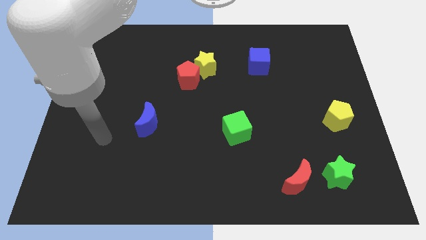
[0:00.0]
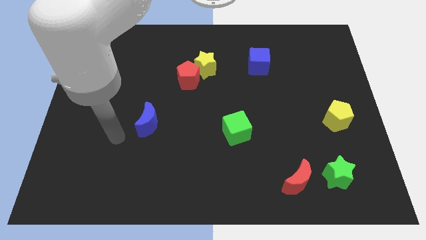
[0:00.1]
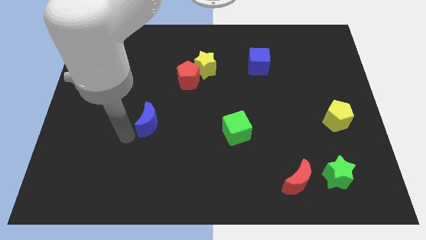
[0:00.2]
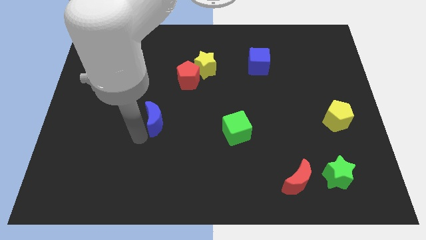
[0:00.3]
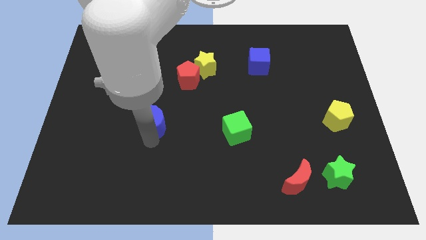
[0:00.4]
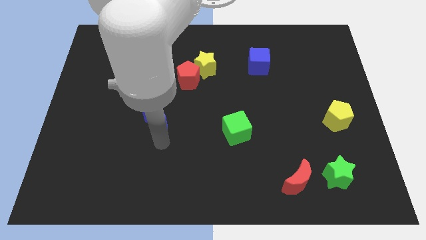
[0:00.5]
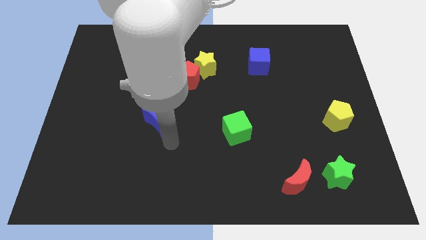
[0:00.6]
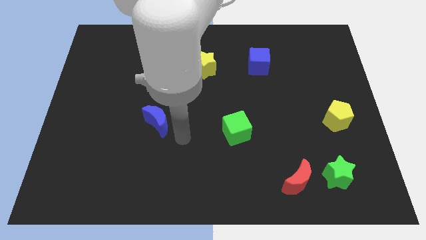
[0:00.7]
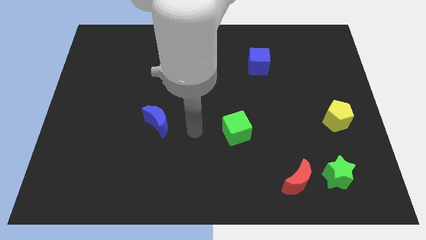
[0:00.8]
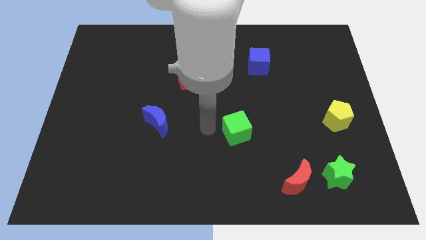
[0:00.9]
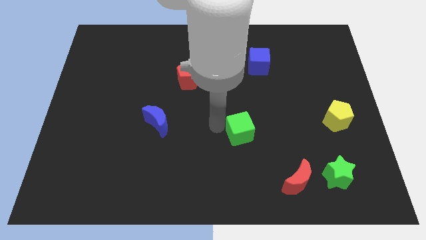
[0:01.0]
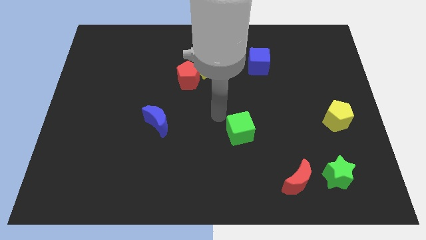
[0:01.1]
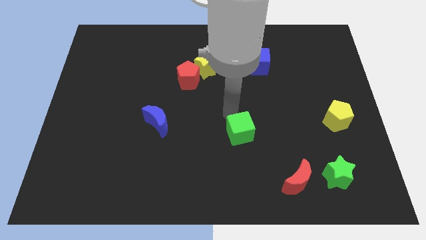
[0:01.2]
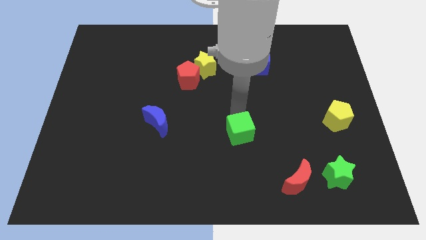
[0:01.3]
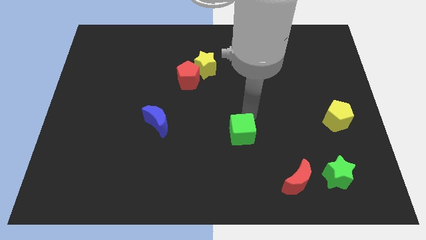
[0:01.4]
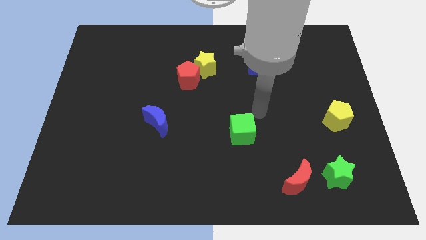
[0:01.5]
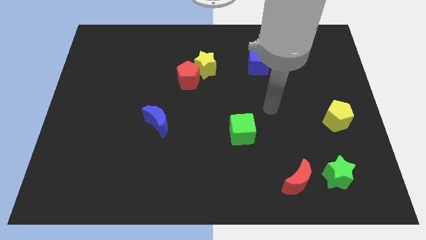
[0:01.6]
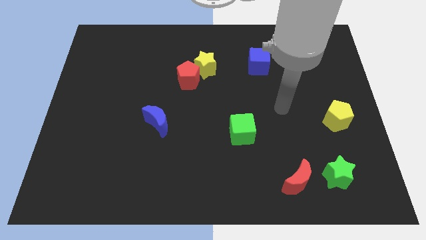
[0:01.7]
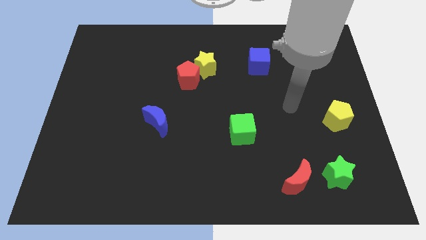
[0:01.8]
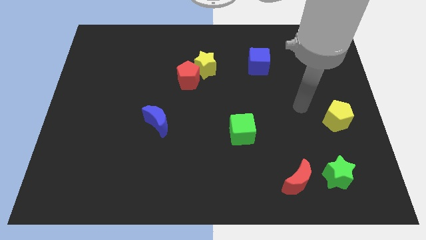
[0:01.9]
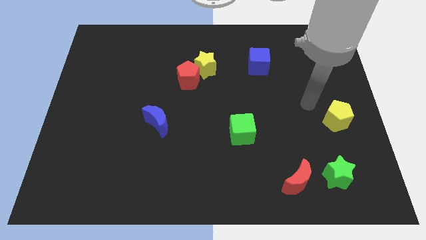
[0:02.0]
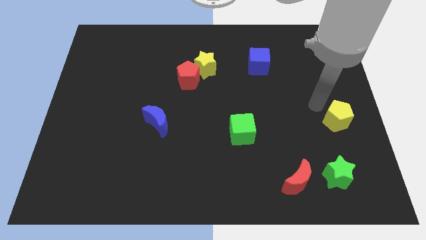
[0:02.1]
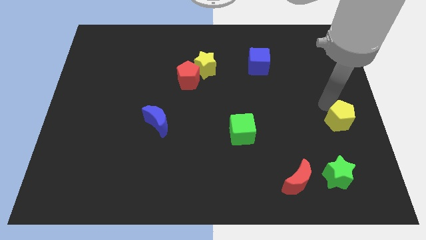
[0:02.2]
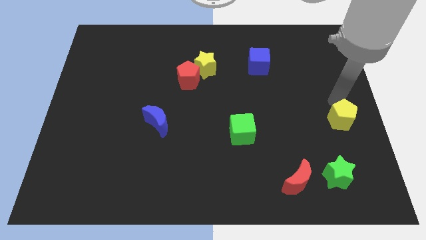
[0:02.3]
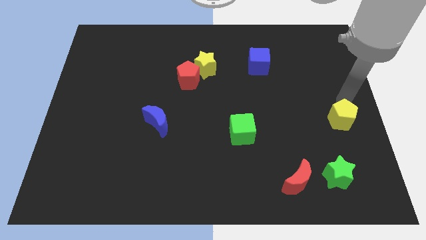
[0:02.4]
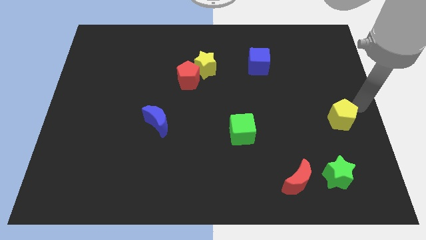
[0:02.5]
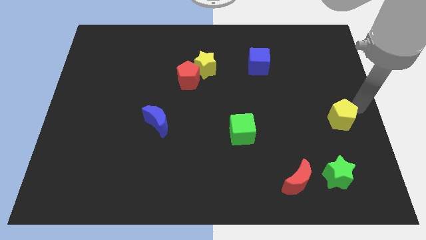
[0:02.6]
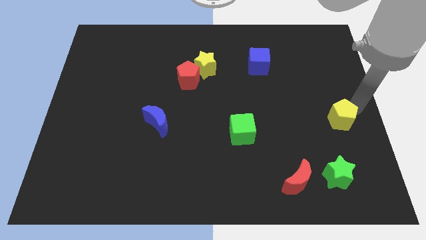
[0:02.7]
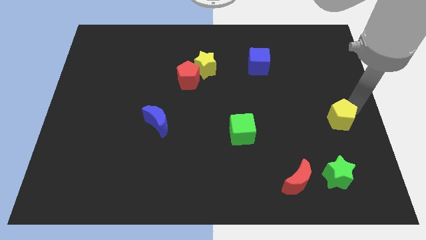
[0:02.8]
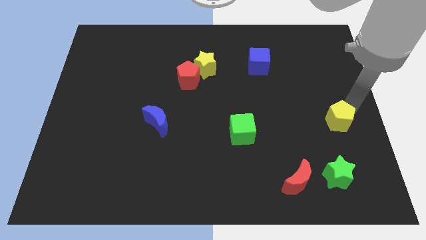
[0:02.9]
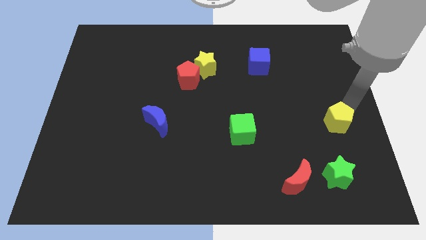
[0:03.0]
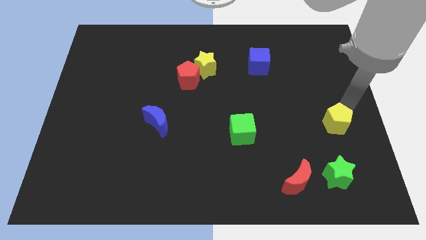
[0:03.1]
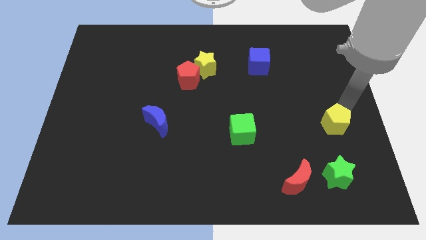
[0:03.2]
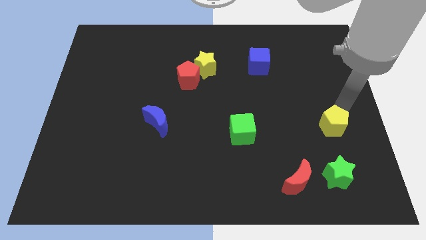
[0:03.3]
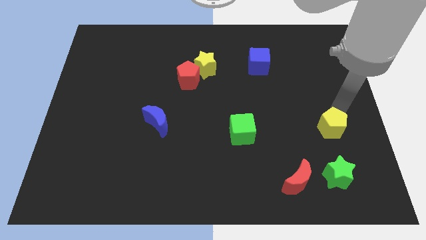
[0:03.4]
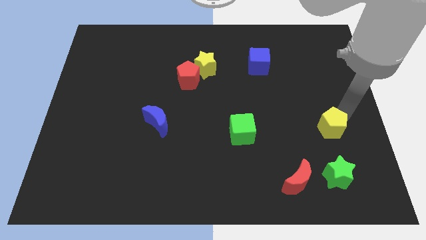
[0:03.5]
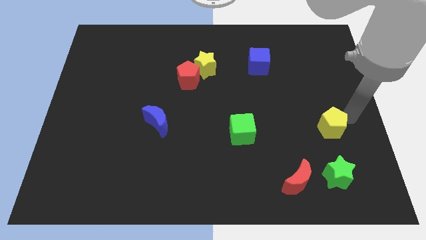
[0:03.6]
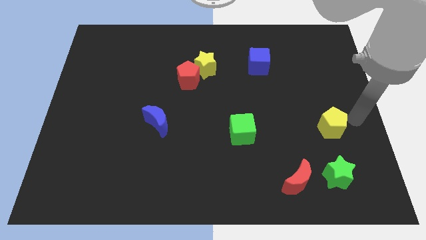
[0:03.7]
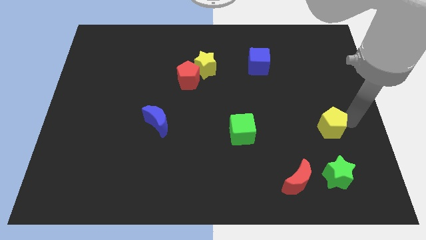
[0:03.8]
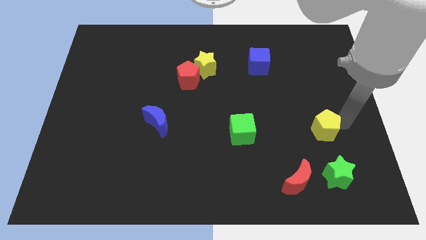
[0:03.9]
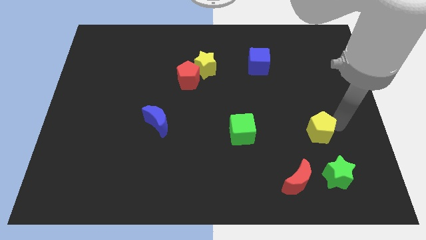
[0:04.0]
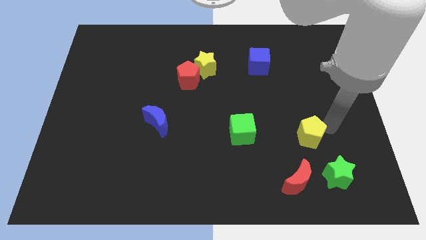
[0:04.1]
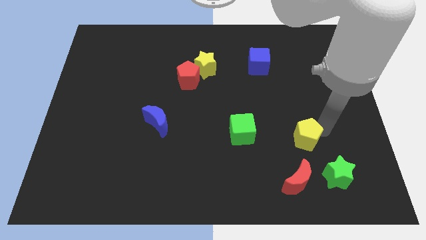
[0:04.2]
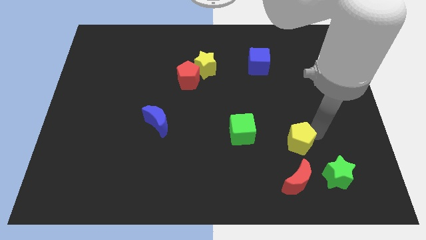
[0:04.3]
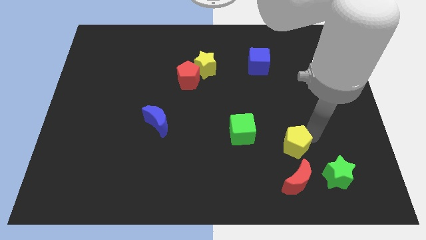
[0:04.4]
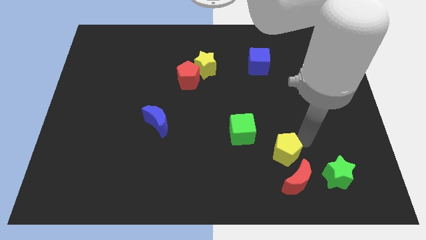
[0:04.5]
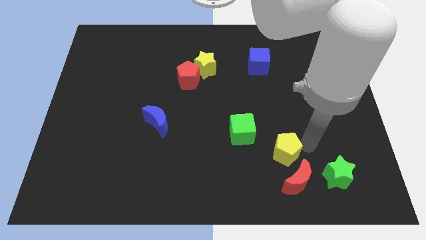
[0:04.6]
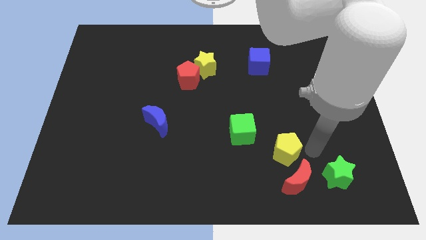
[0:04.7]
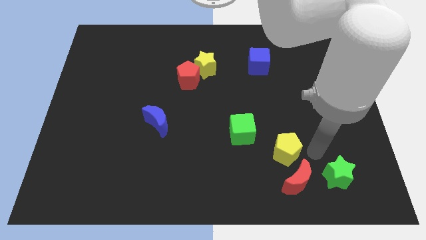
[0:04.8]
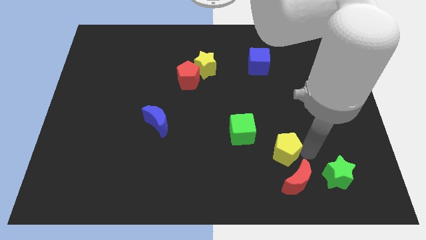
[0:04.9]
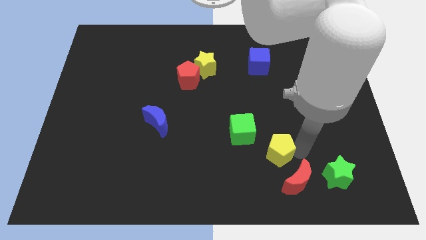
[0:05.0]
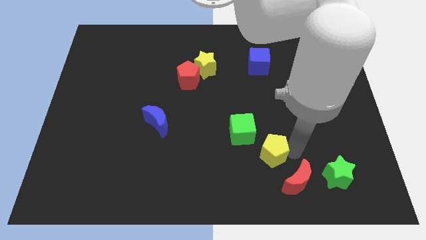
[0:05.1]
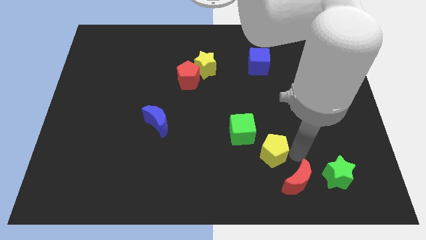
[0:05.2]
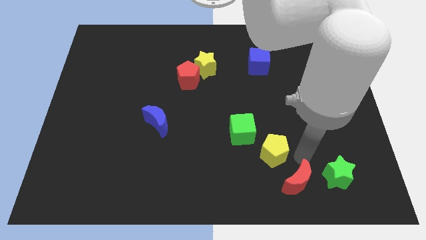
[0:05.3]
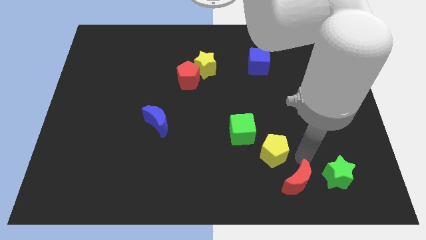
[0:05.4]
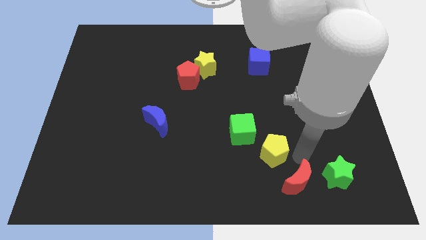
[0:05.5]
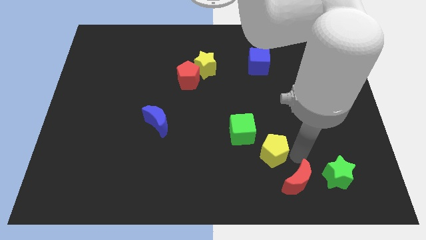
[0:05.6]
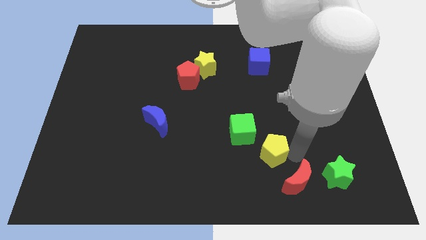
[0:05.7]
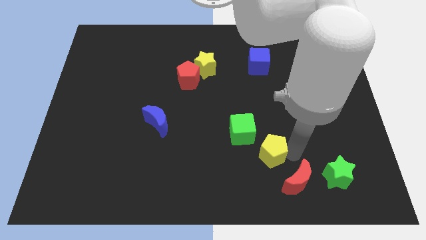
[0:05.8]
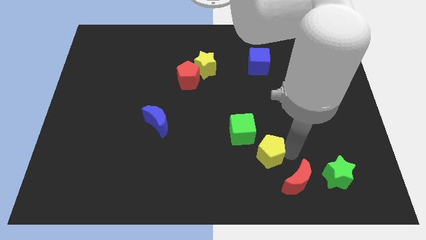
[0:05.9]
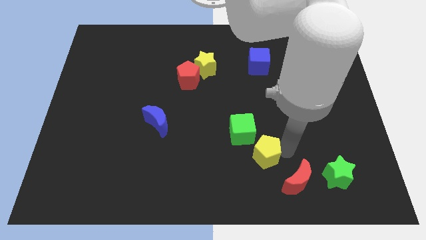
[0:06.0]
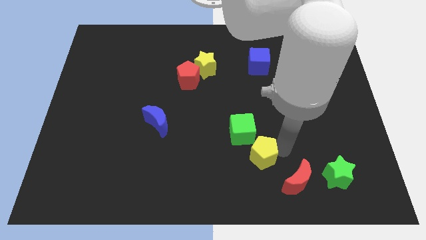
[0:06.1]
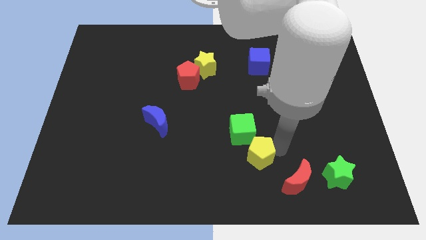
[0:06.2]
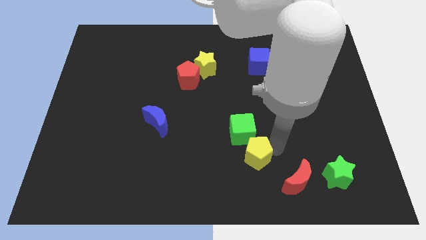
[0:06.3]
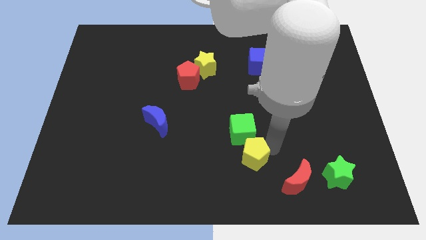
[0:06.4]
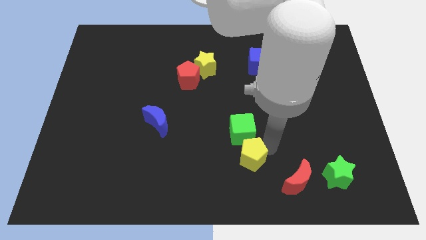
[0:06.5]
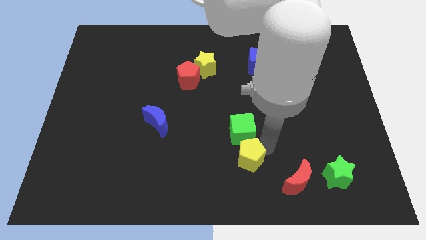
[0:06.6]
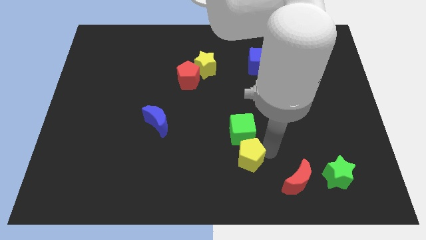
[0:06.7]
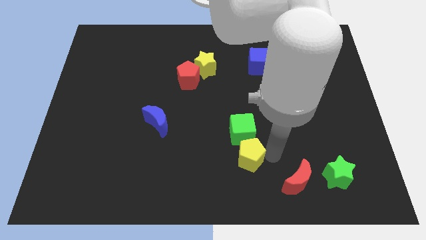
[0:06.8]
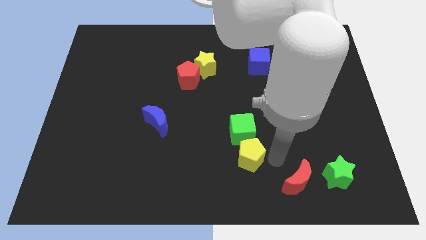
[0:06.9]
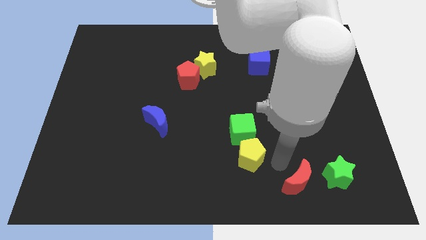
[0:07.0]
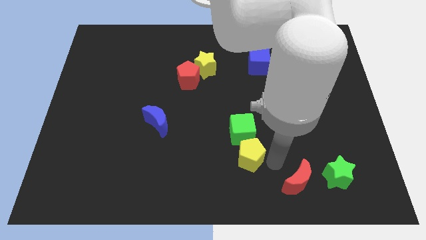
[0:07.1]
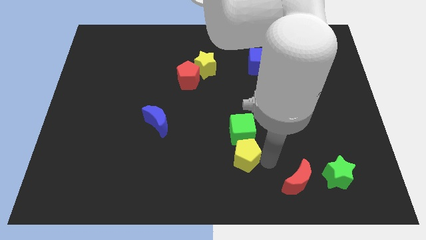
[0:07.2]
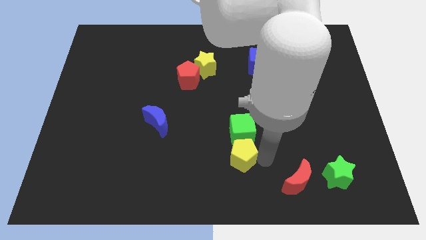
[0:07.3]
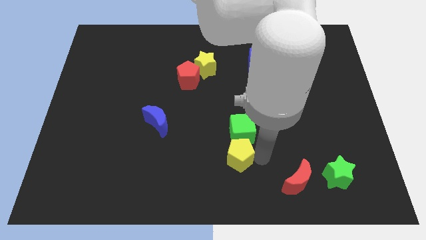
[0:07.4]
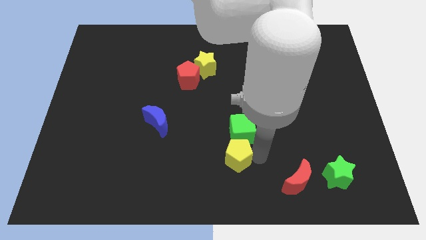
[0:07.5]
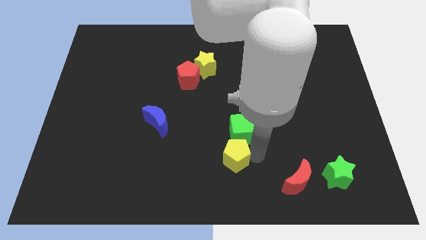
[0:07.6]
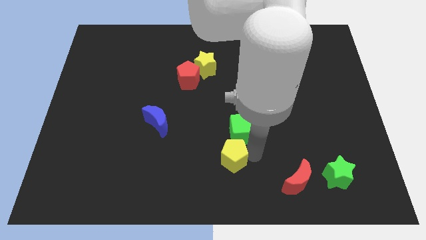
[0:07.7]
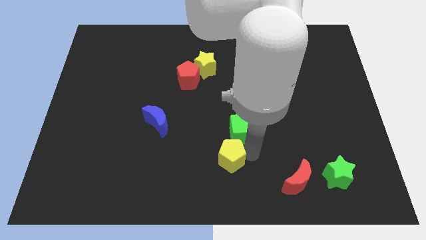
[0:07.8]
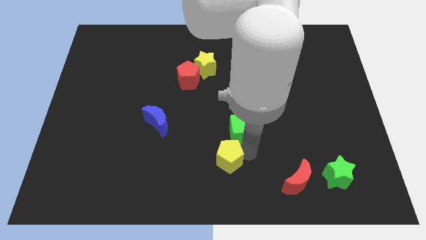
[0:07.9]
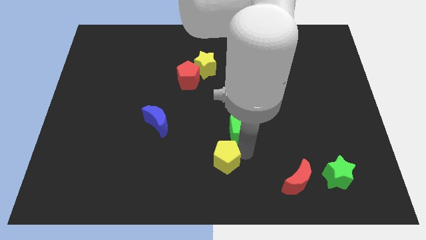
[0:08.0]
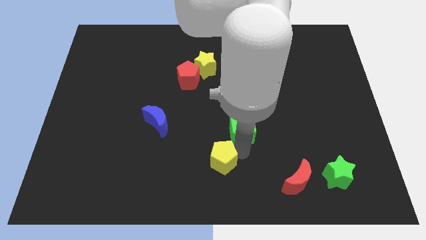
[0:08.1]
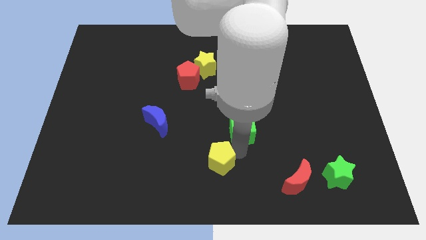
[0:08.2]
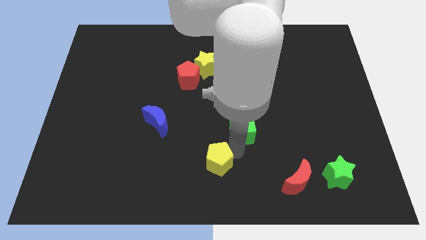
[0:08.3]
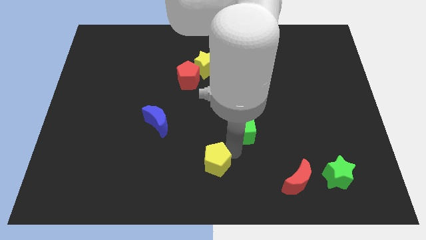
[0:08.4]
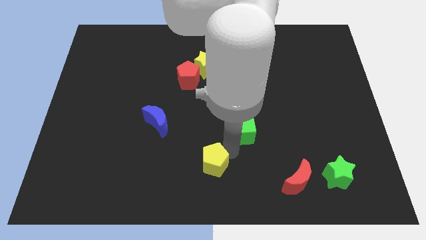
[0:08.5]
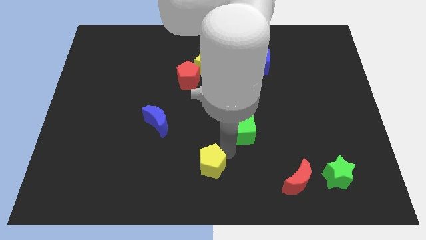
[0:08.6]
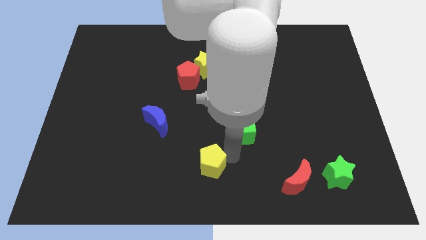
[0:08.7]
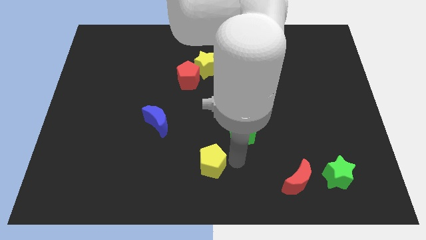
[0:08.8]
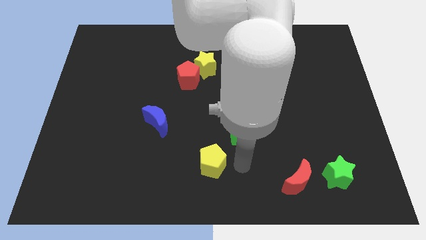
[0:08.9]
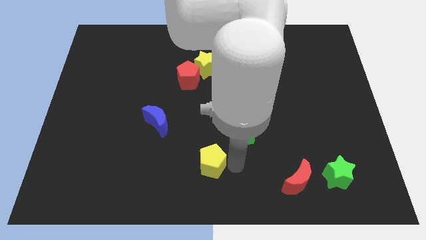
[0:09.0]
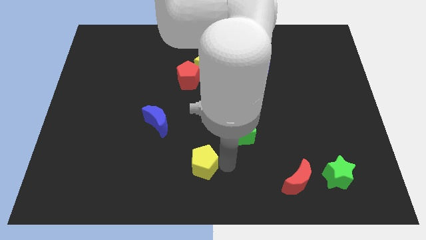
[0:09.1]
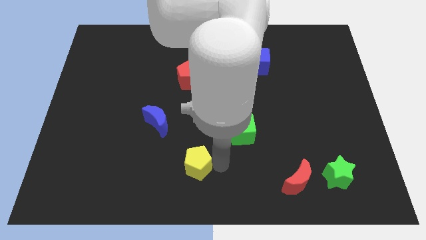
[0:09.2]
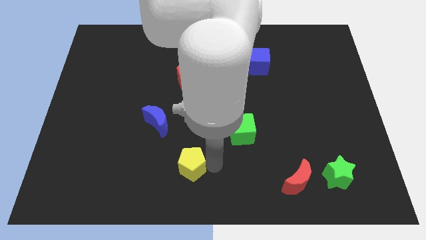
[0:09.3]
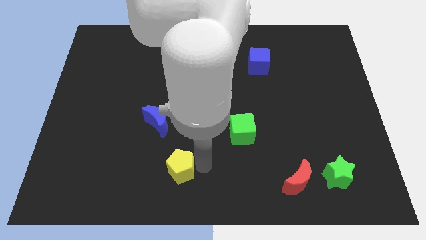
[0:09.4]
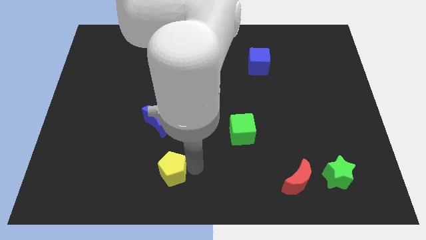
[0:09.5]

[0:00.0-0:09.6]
slide the yellow pentagon to the bottom of the blue moon
